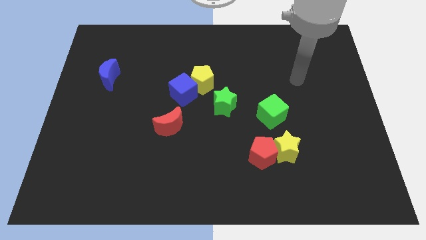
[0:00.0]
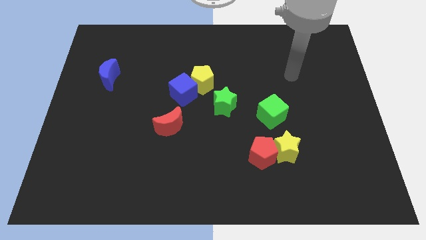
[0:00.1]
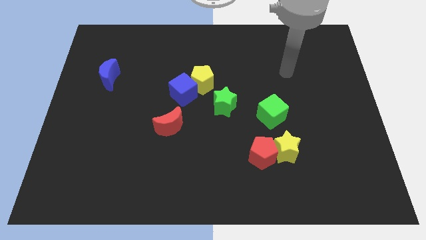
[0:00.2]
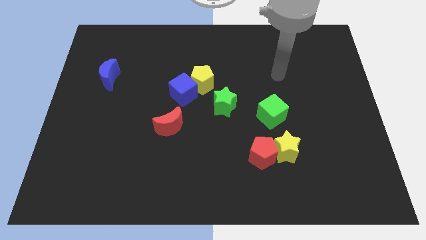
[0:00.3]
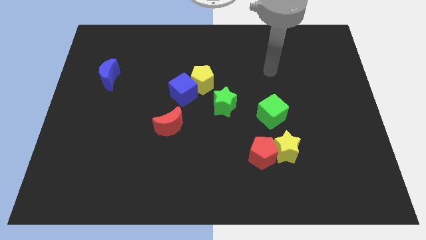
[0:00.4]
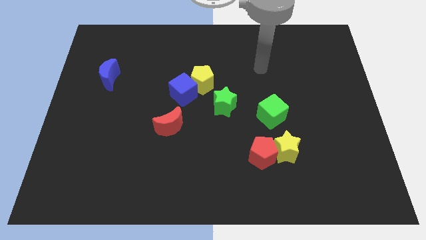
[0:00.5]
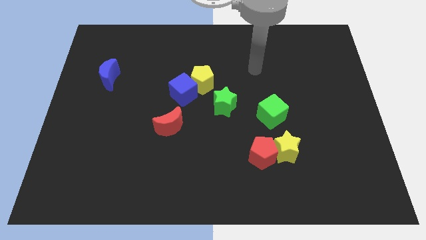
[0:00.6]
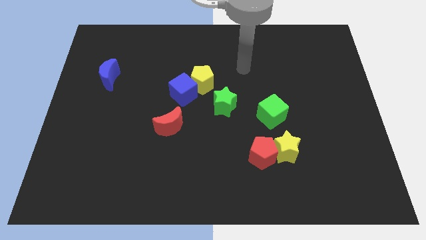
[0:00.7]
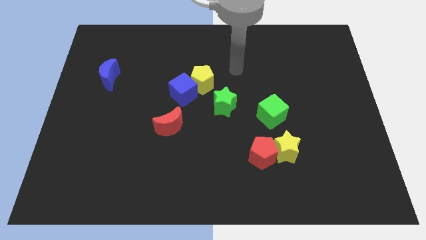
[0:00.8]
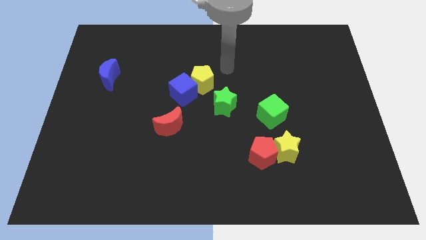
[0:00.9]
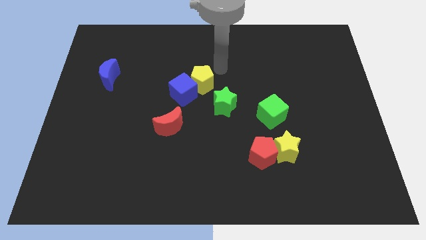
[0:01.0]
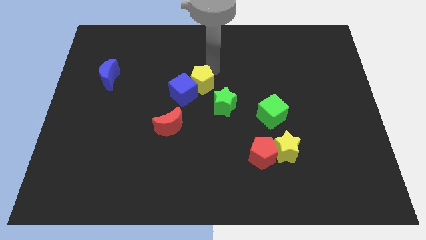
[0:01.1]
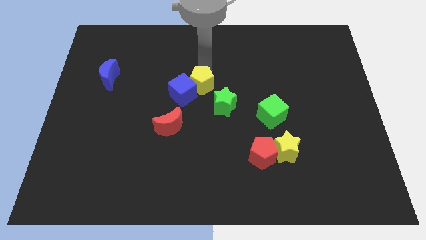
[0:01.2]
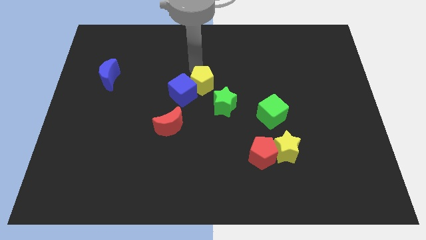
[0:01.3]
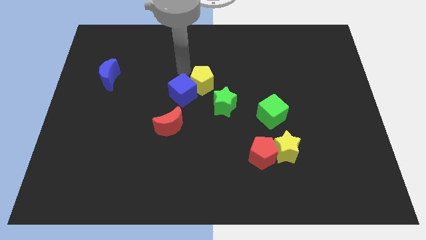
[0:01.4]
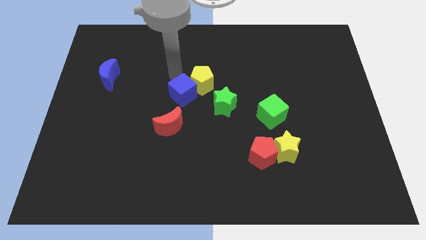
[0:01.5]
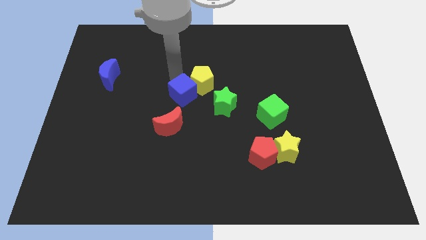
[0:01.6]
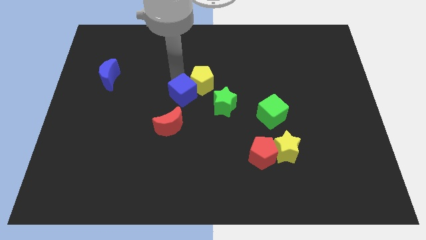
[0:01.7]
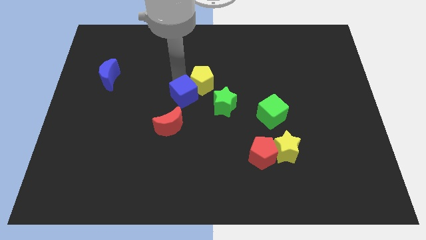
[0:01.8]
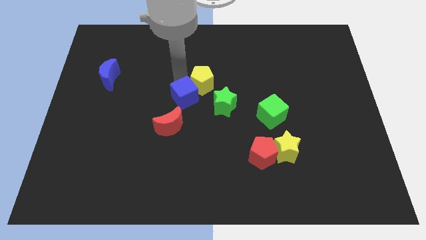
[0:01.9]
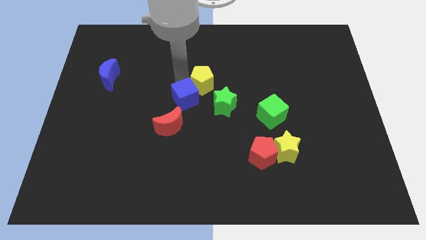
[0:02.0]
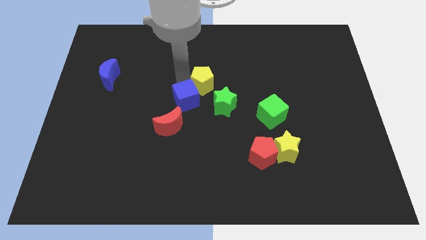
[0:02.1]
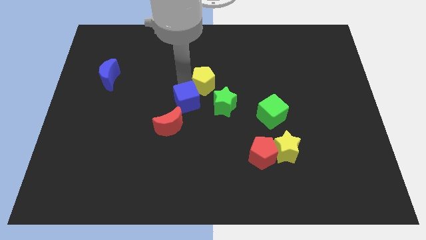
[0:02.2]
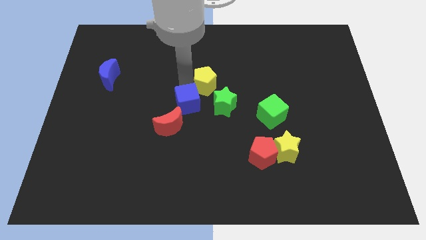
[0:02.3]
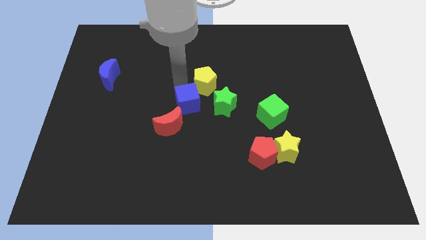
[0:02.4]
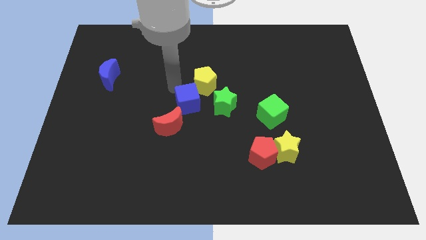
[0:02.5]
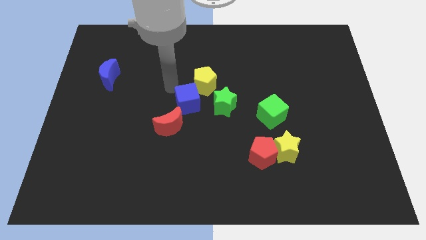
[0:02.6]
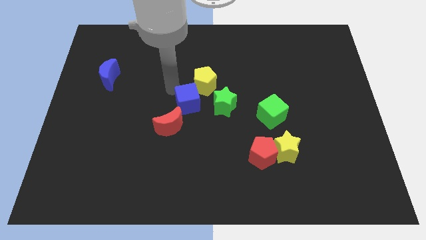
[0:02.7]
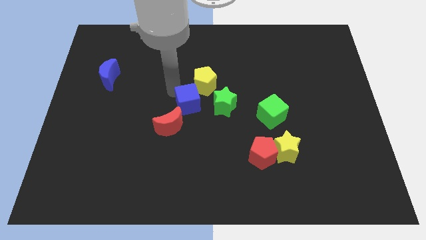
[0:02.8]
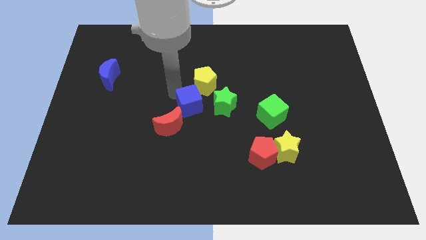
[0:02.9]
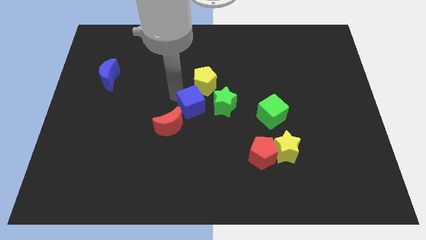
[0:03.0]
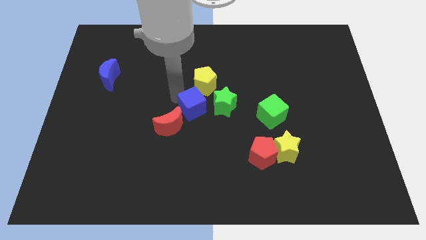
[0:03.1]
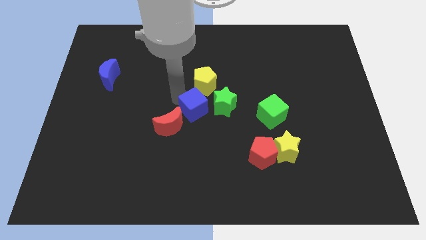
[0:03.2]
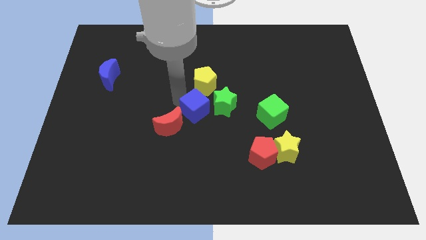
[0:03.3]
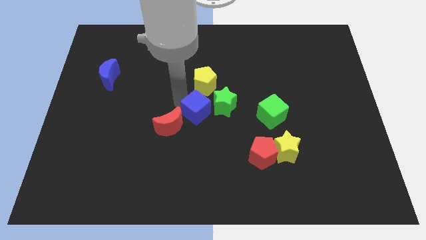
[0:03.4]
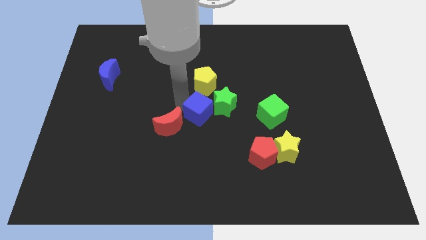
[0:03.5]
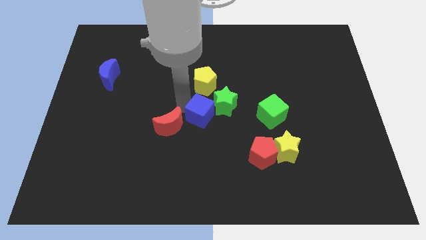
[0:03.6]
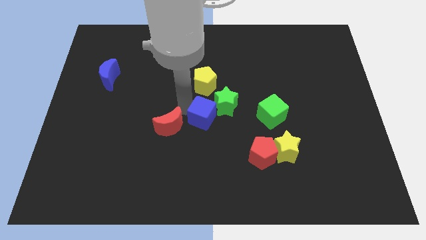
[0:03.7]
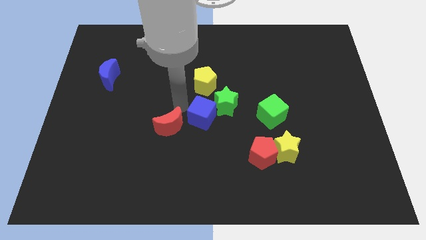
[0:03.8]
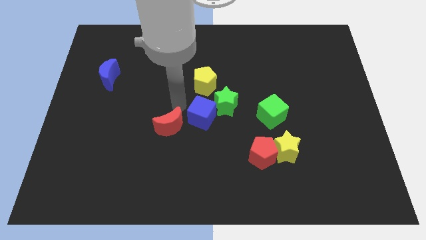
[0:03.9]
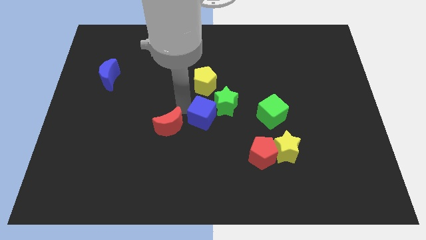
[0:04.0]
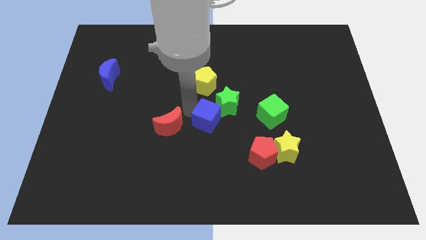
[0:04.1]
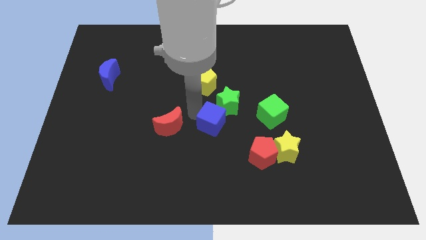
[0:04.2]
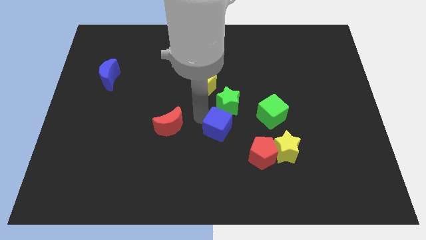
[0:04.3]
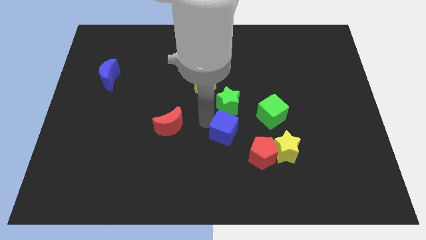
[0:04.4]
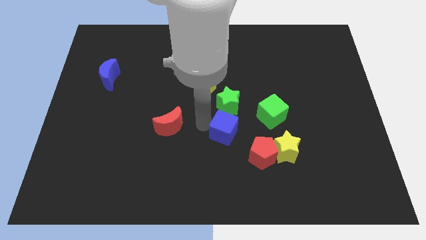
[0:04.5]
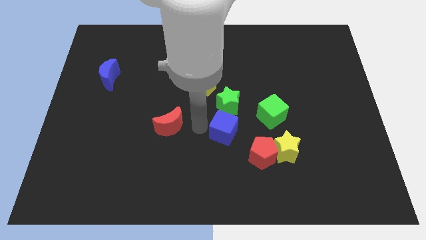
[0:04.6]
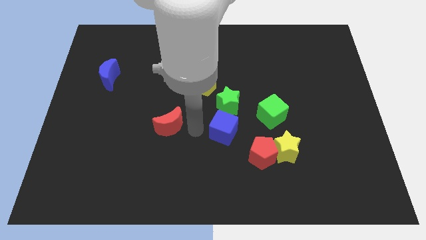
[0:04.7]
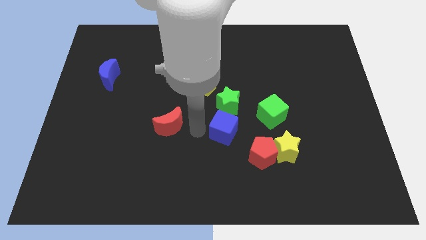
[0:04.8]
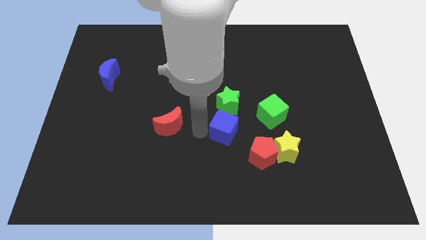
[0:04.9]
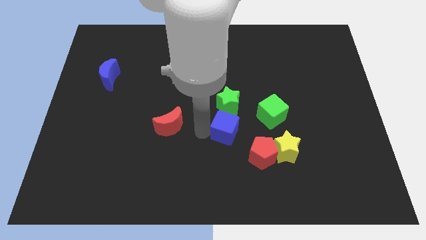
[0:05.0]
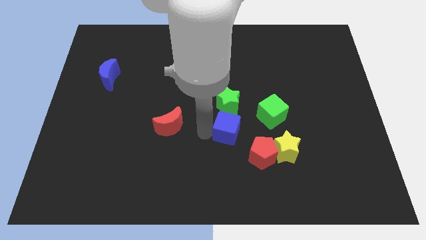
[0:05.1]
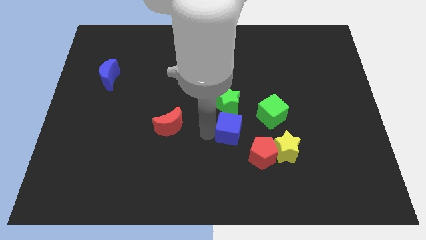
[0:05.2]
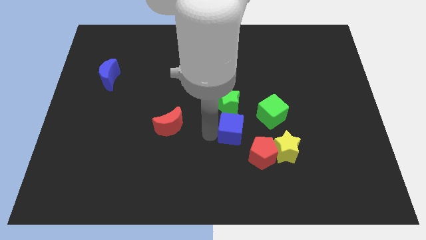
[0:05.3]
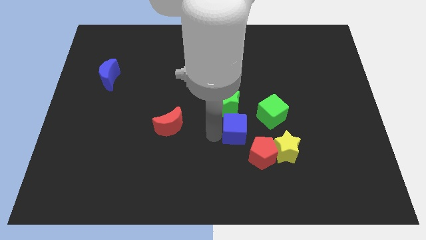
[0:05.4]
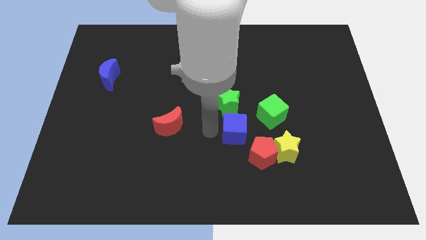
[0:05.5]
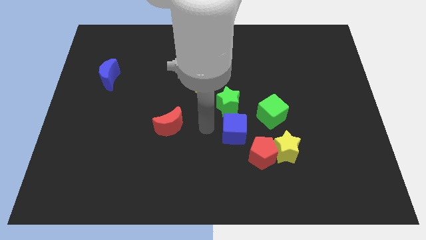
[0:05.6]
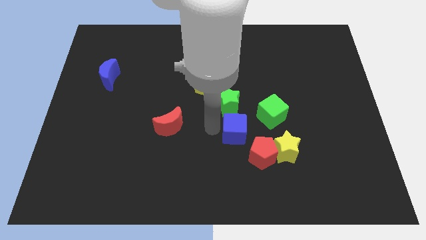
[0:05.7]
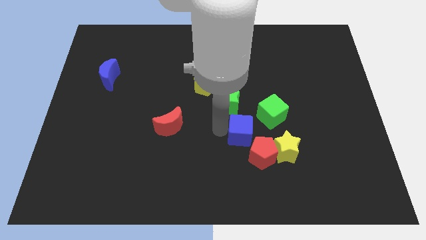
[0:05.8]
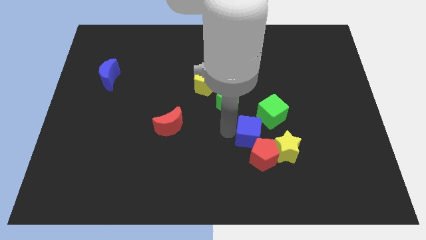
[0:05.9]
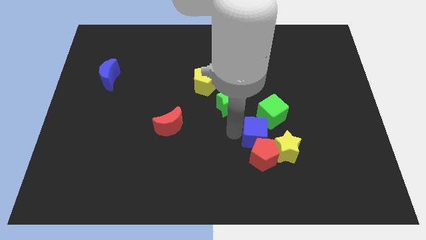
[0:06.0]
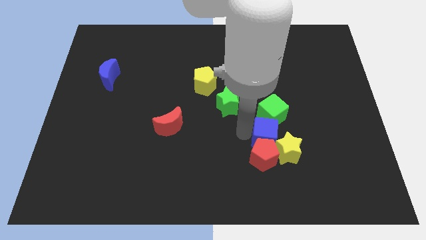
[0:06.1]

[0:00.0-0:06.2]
slide the blue cube close to the yellow star

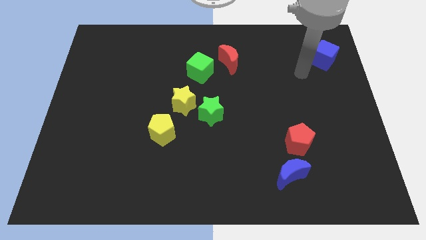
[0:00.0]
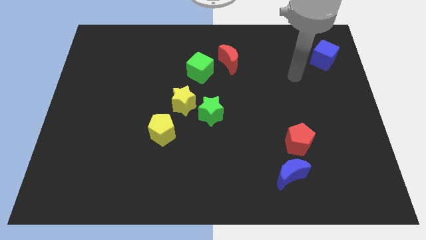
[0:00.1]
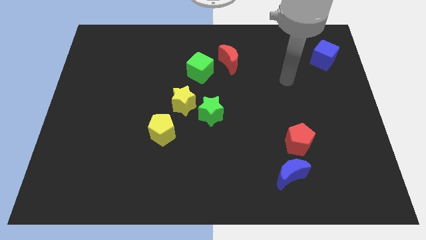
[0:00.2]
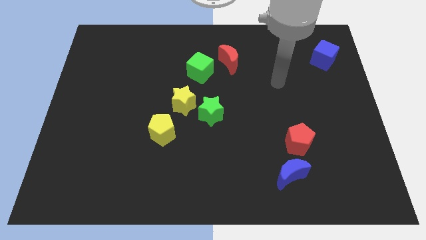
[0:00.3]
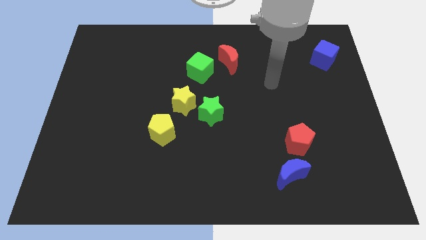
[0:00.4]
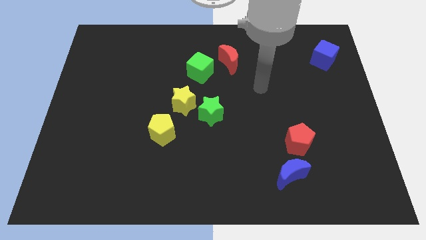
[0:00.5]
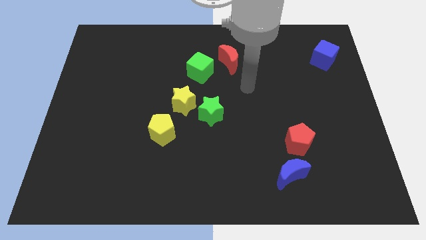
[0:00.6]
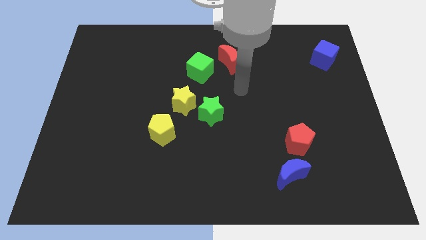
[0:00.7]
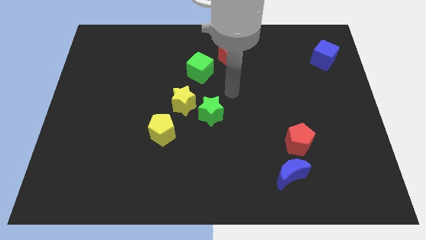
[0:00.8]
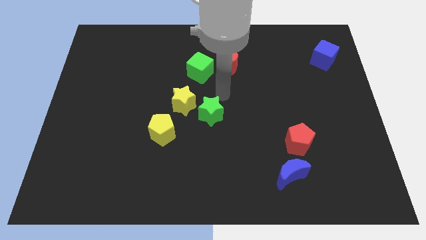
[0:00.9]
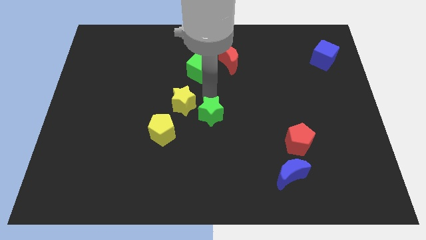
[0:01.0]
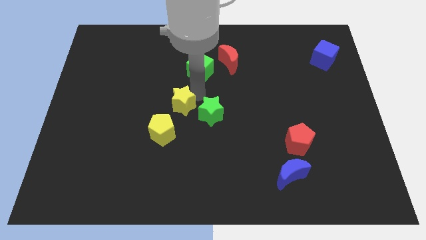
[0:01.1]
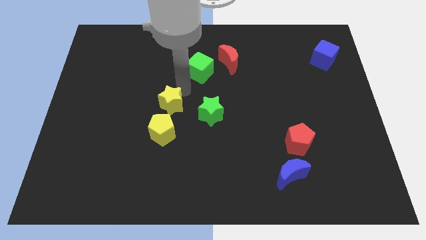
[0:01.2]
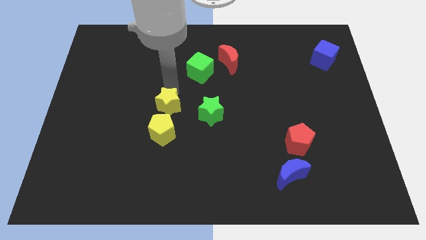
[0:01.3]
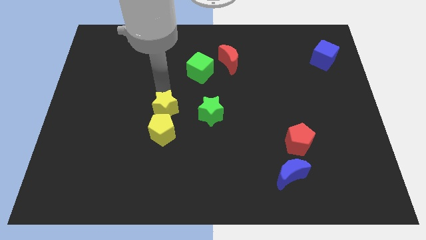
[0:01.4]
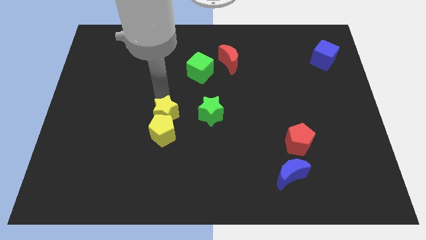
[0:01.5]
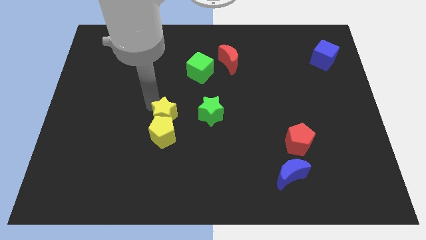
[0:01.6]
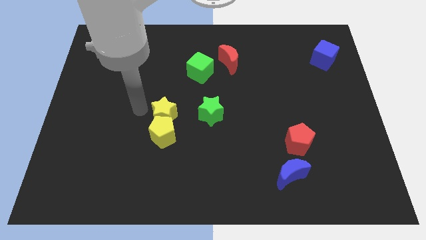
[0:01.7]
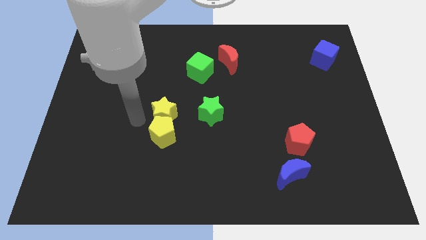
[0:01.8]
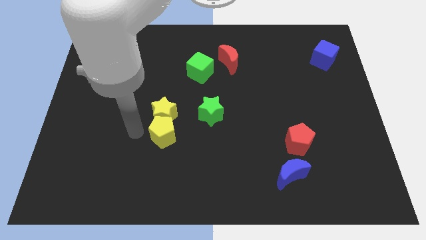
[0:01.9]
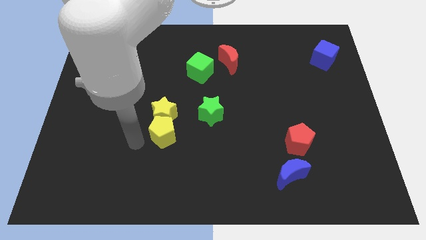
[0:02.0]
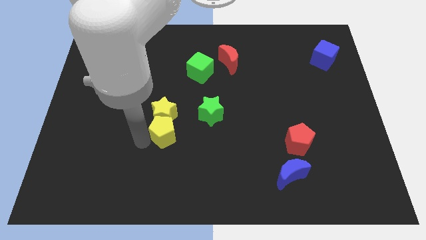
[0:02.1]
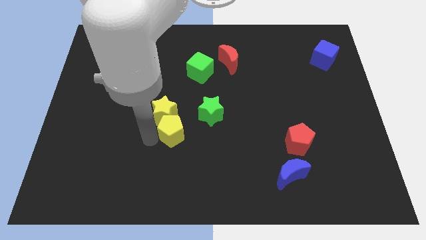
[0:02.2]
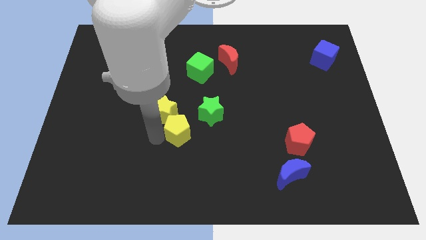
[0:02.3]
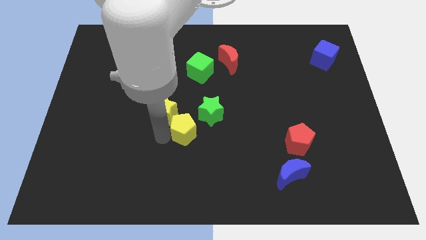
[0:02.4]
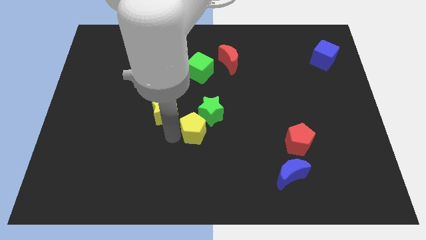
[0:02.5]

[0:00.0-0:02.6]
put the yellow pentagon next to the green star
